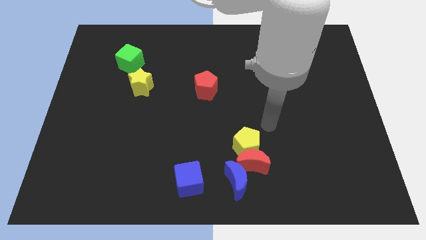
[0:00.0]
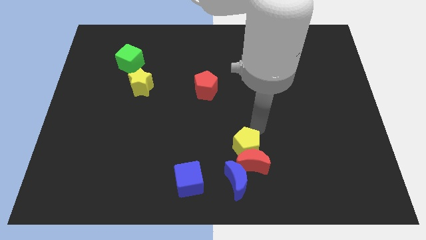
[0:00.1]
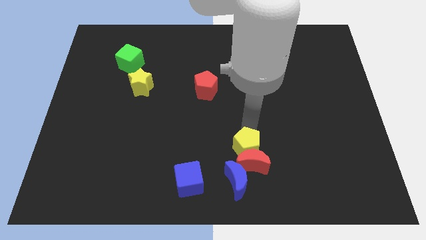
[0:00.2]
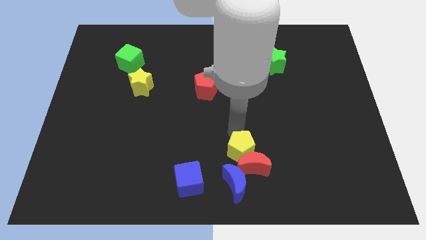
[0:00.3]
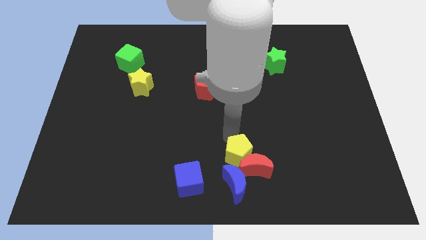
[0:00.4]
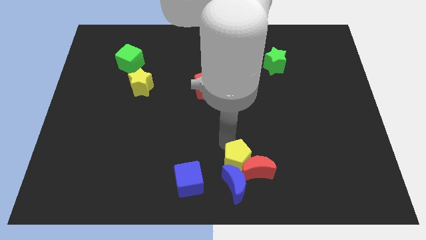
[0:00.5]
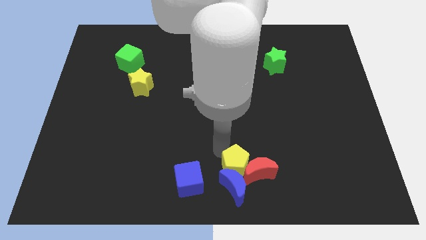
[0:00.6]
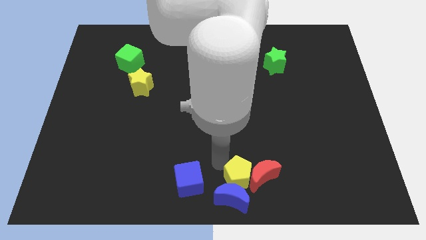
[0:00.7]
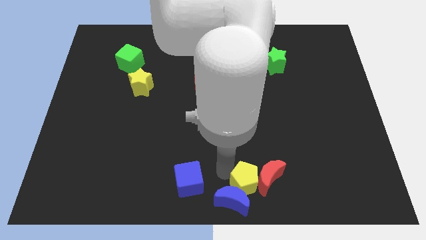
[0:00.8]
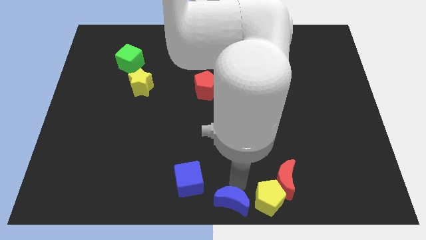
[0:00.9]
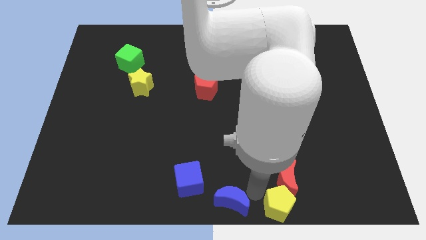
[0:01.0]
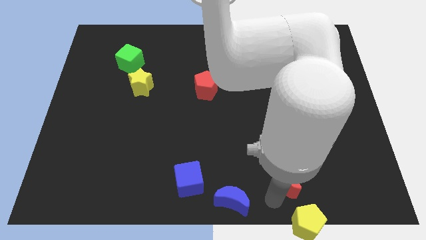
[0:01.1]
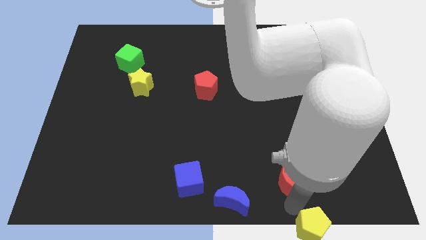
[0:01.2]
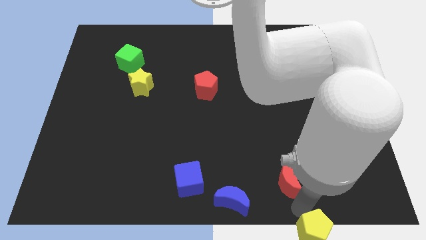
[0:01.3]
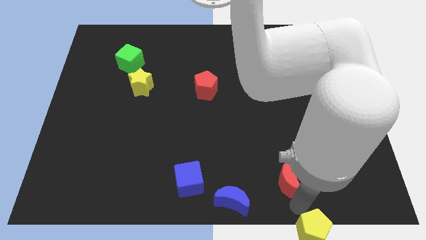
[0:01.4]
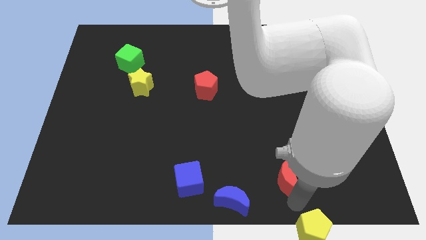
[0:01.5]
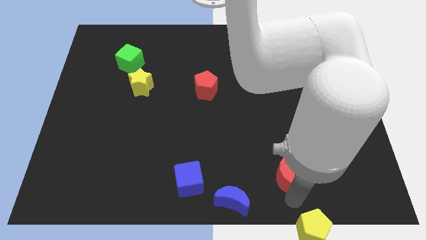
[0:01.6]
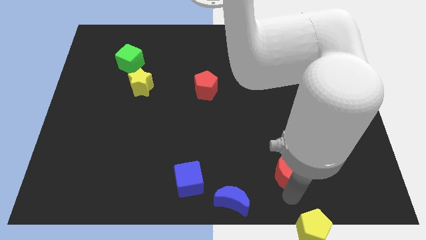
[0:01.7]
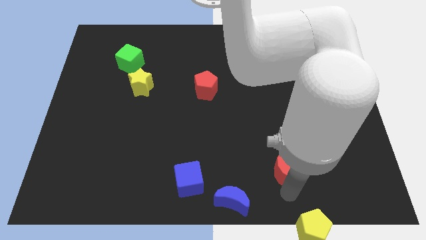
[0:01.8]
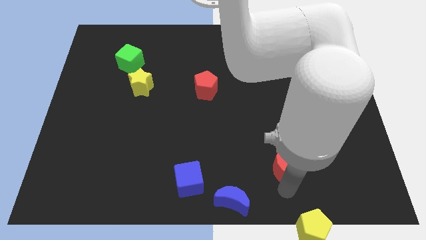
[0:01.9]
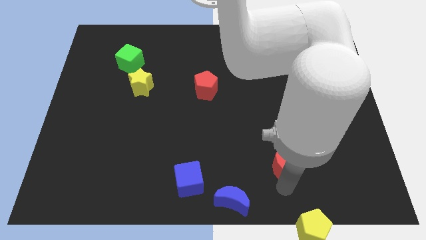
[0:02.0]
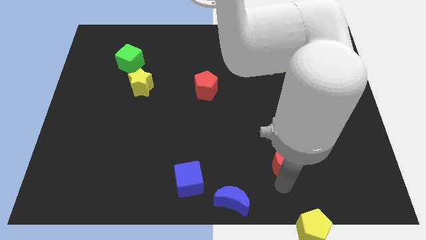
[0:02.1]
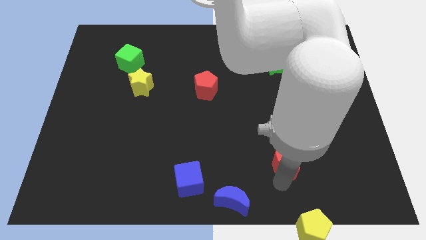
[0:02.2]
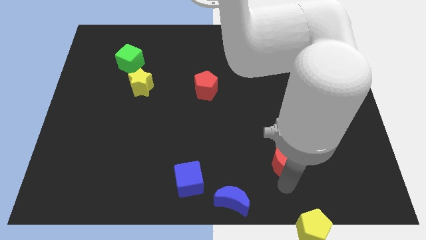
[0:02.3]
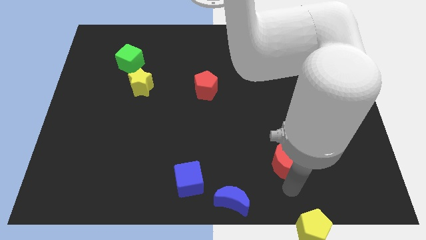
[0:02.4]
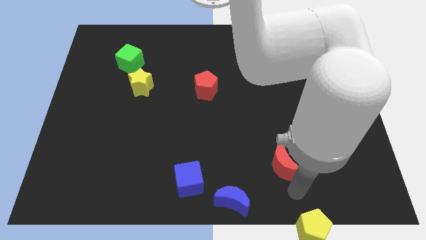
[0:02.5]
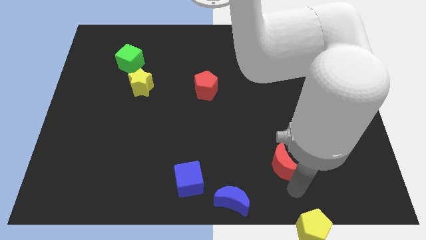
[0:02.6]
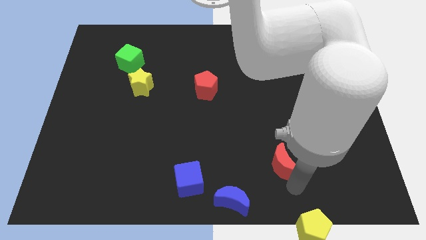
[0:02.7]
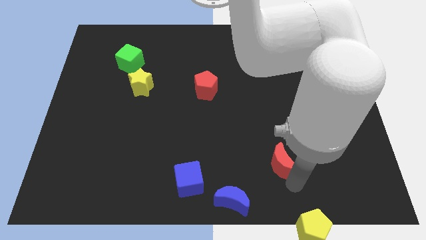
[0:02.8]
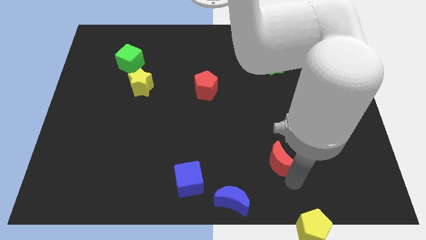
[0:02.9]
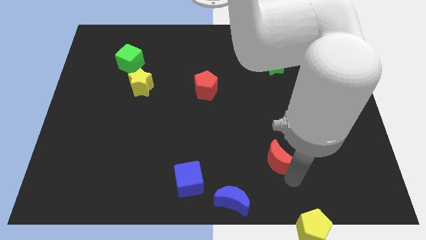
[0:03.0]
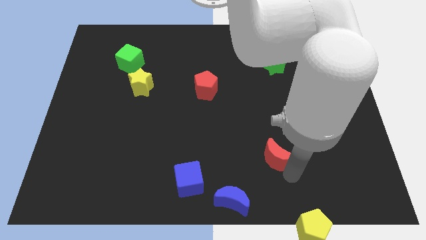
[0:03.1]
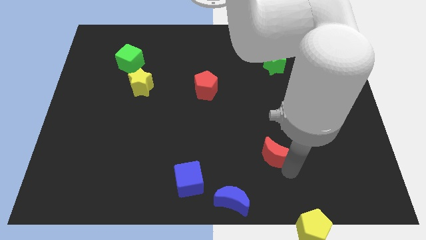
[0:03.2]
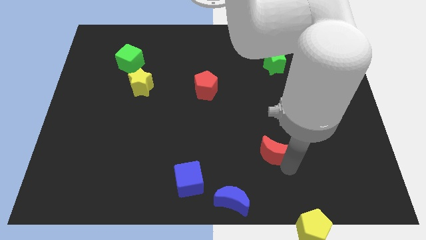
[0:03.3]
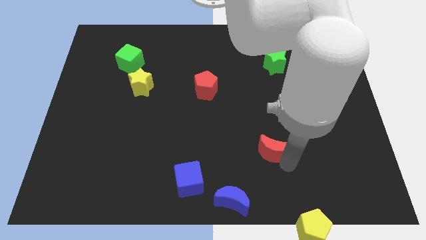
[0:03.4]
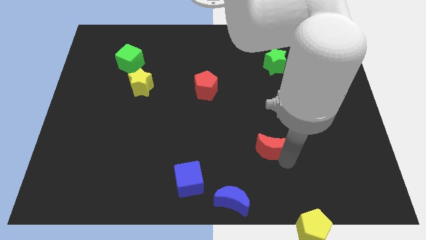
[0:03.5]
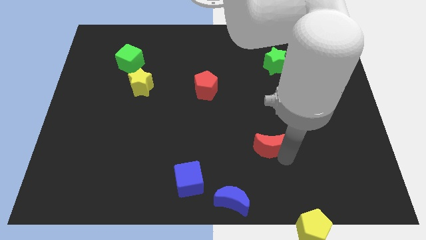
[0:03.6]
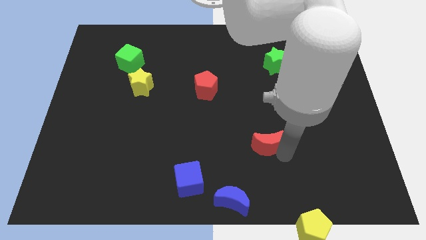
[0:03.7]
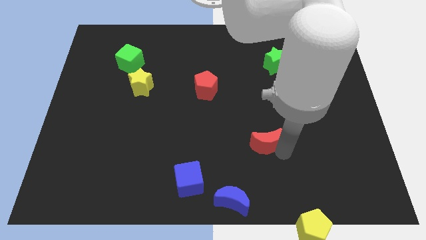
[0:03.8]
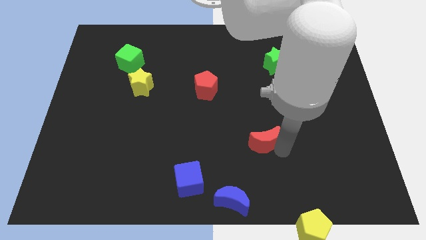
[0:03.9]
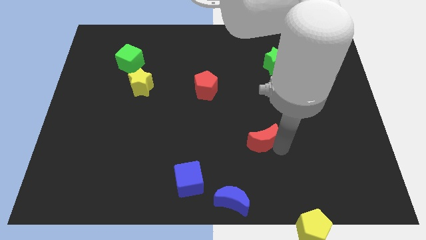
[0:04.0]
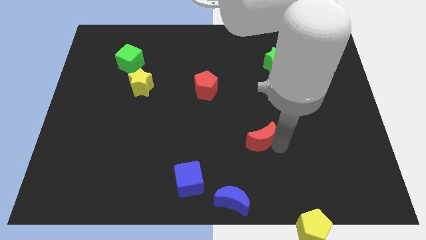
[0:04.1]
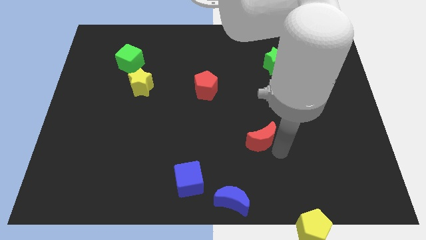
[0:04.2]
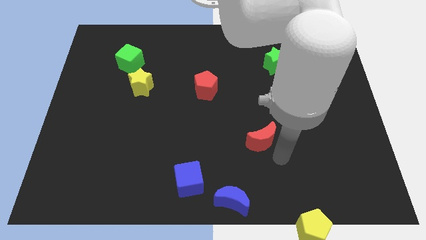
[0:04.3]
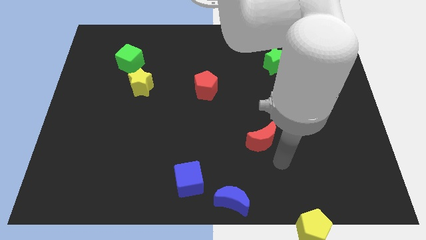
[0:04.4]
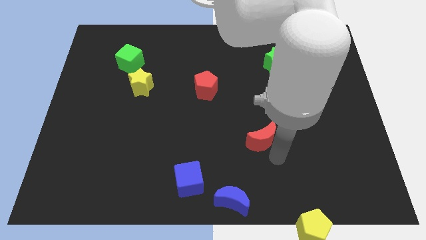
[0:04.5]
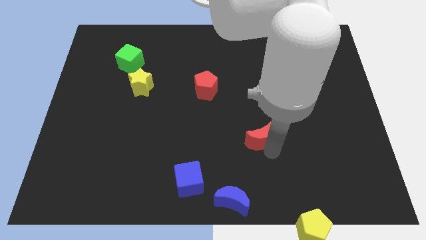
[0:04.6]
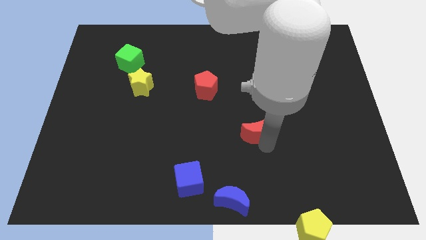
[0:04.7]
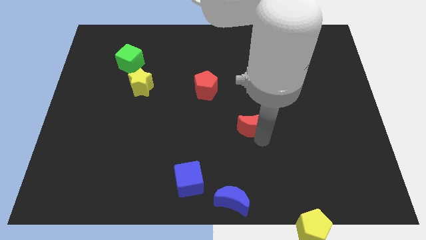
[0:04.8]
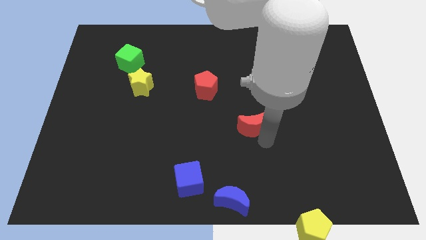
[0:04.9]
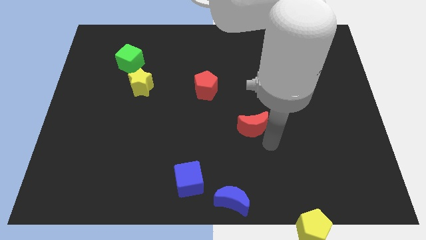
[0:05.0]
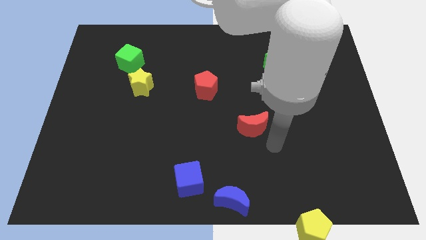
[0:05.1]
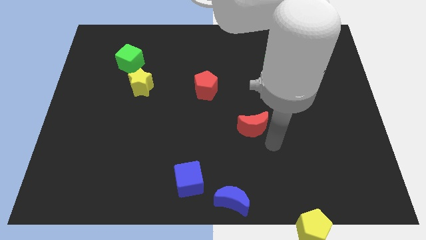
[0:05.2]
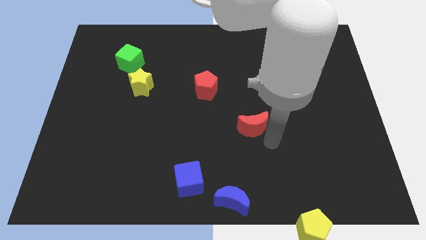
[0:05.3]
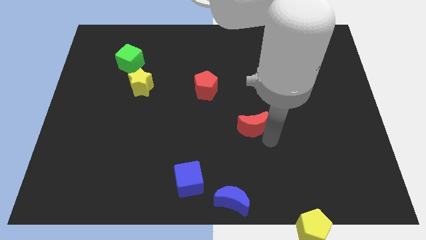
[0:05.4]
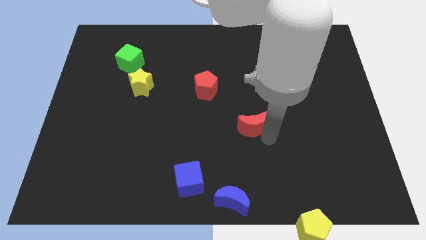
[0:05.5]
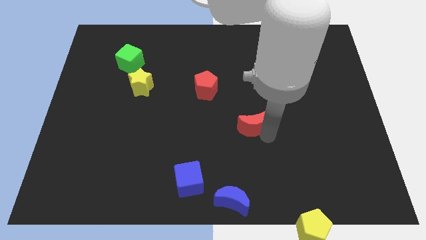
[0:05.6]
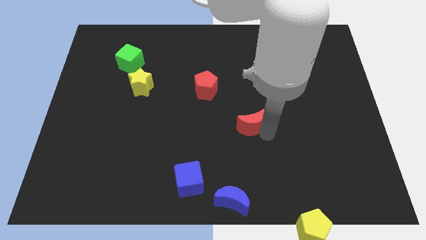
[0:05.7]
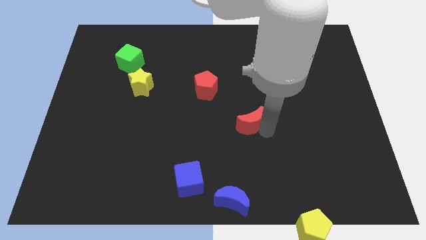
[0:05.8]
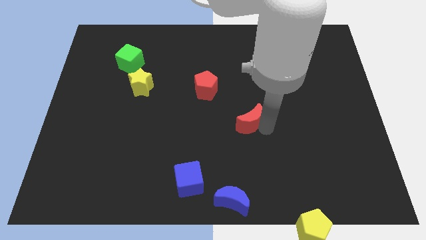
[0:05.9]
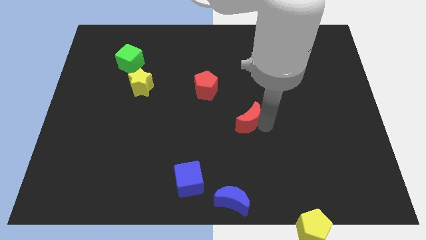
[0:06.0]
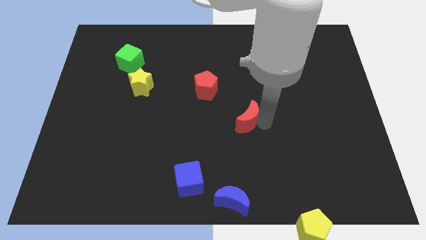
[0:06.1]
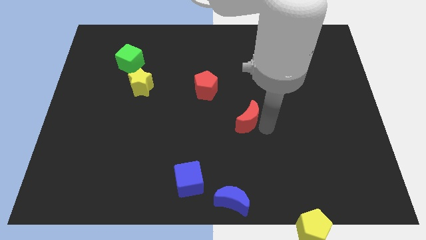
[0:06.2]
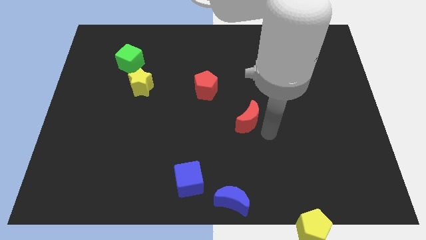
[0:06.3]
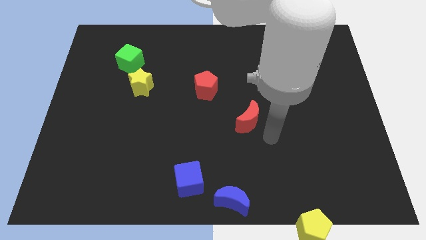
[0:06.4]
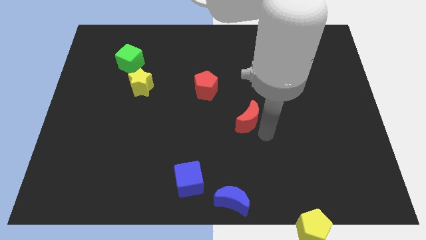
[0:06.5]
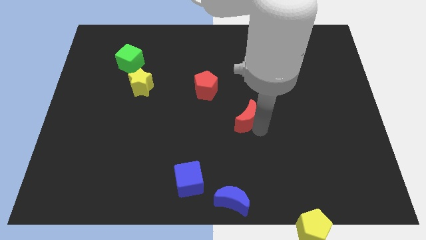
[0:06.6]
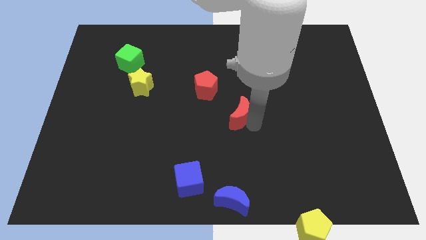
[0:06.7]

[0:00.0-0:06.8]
put the red moon diagonally down and to the right of the red pentagon
